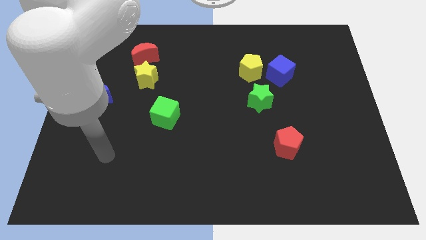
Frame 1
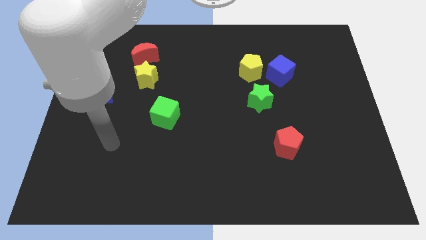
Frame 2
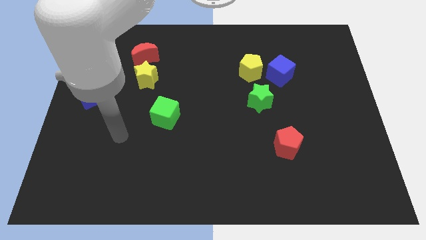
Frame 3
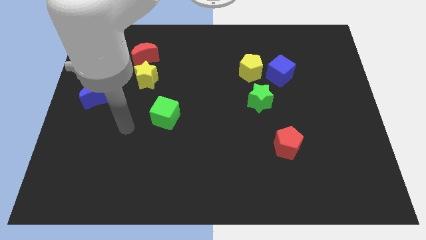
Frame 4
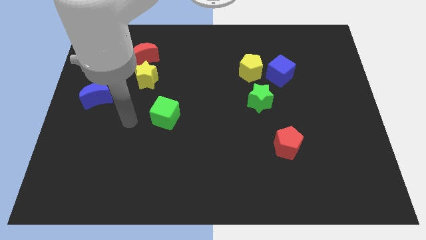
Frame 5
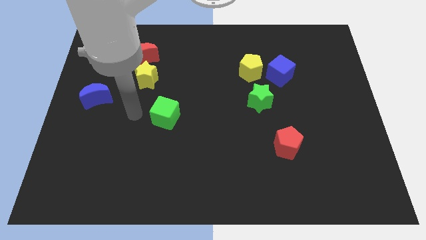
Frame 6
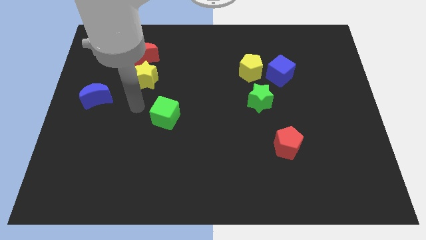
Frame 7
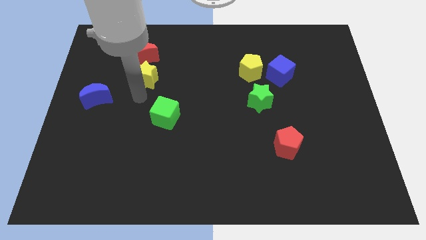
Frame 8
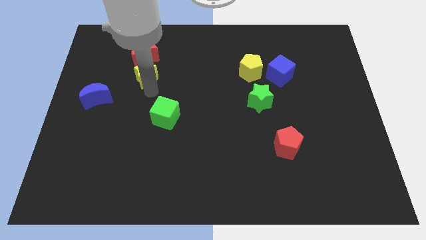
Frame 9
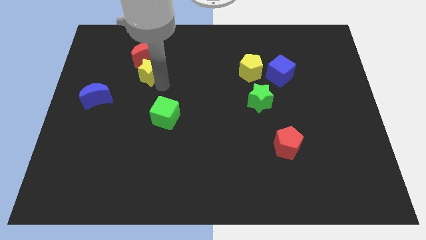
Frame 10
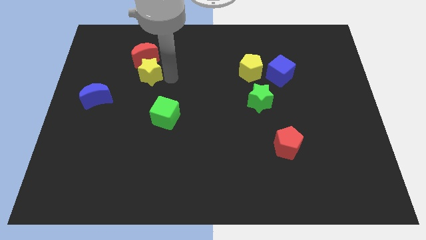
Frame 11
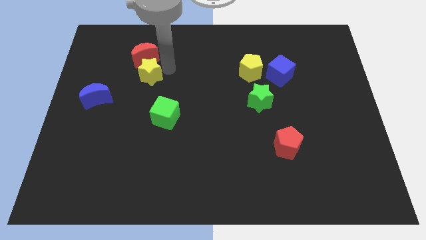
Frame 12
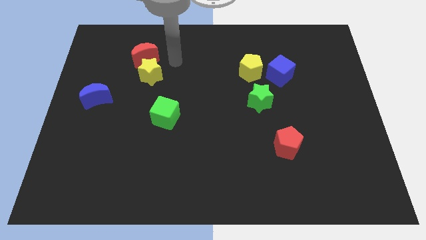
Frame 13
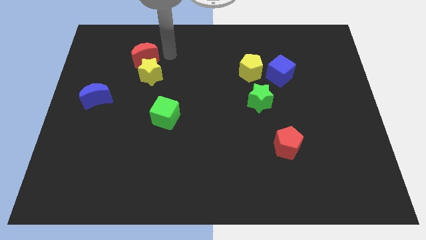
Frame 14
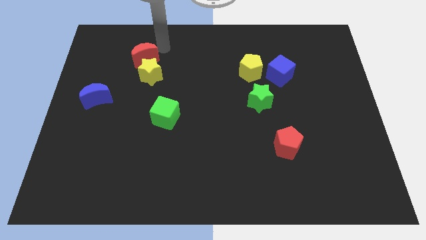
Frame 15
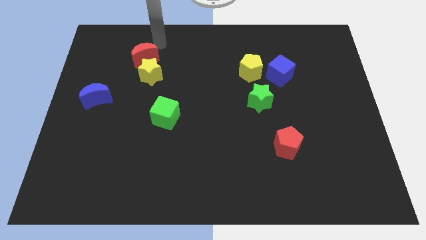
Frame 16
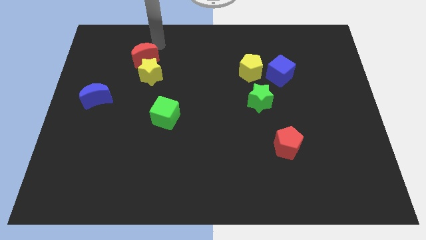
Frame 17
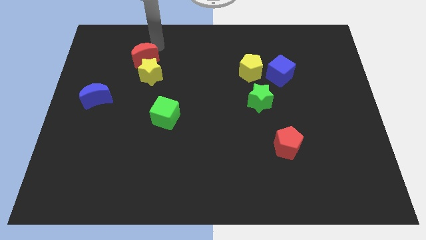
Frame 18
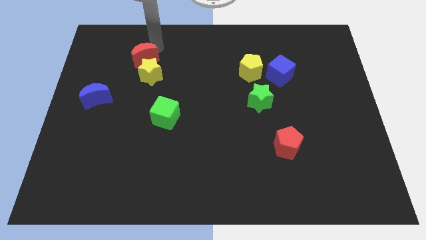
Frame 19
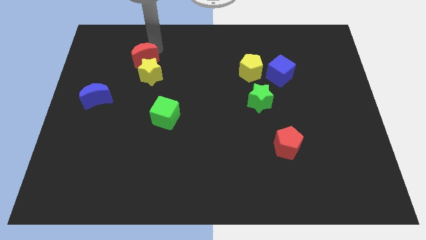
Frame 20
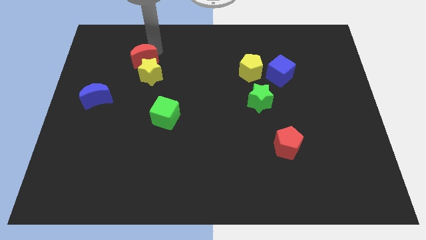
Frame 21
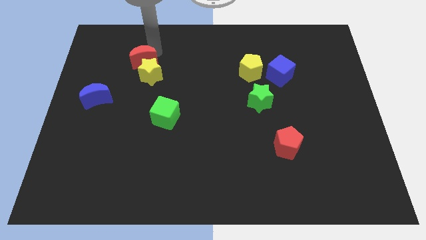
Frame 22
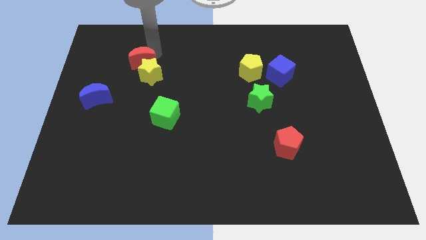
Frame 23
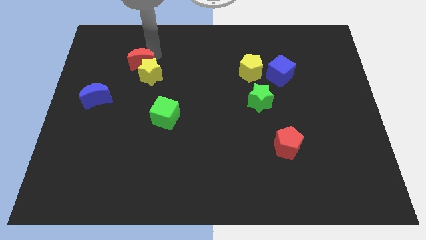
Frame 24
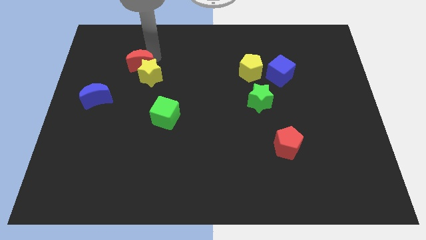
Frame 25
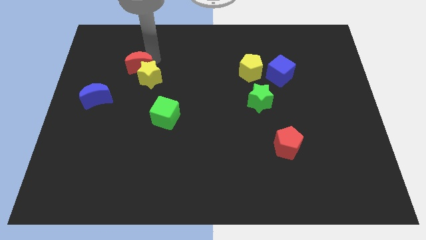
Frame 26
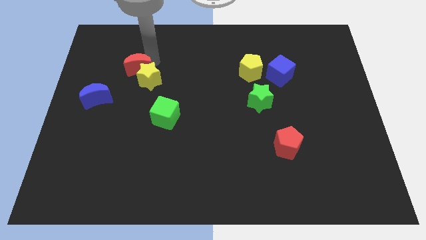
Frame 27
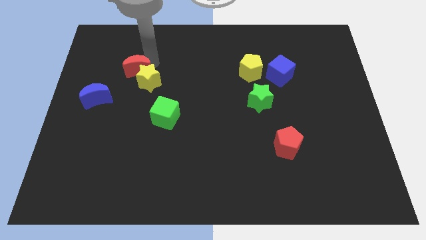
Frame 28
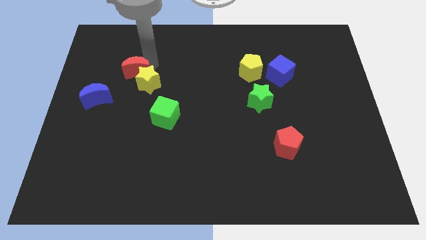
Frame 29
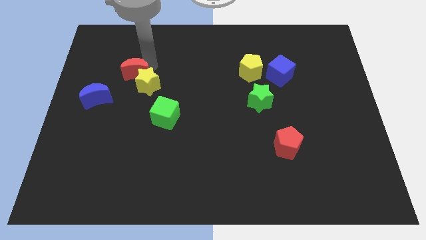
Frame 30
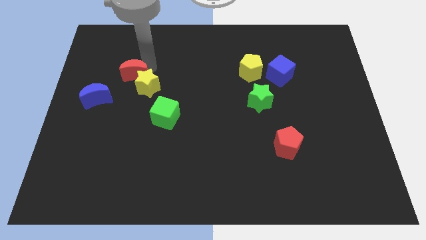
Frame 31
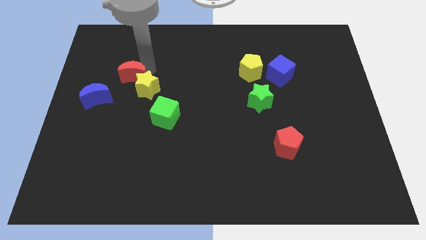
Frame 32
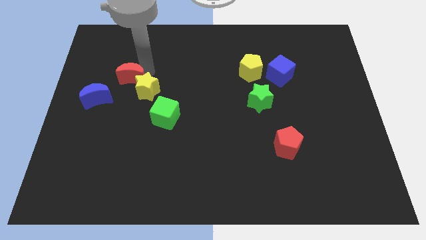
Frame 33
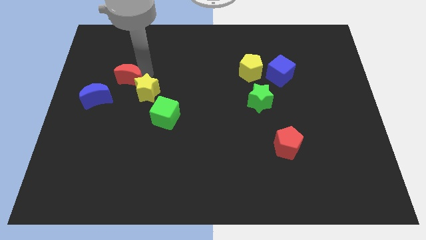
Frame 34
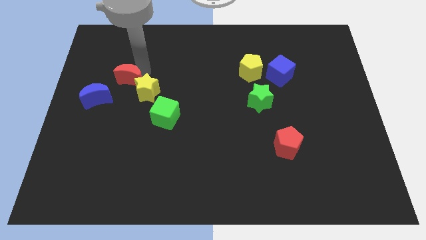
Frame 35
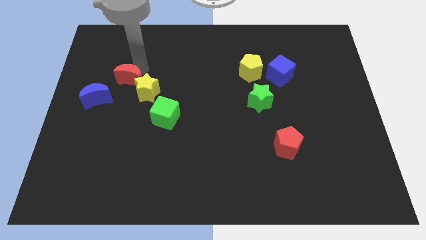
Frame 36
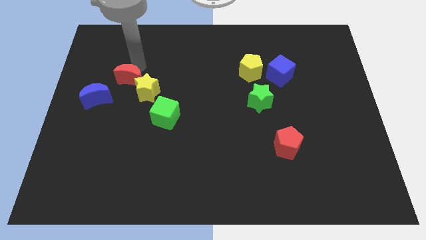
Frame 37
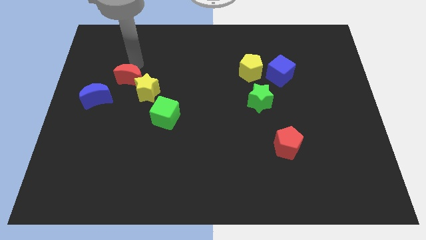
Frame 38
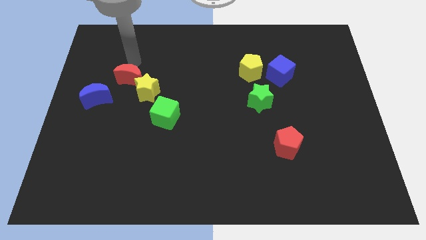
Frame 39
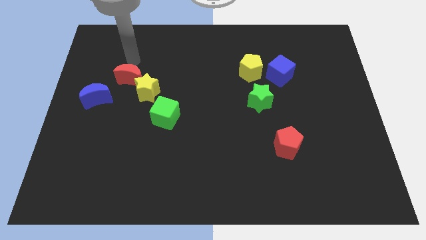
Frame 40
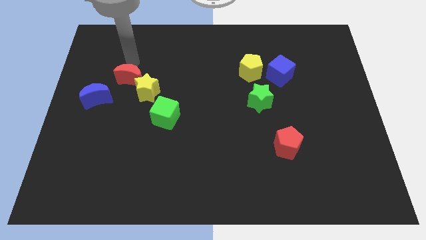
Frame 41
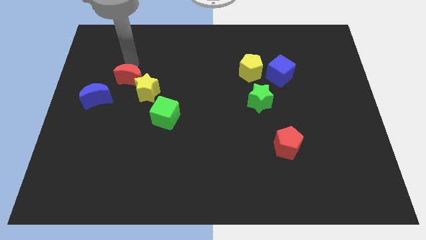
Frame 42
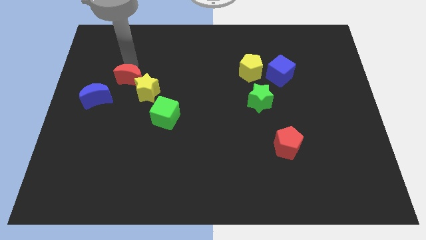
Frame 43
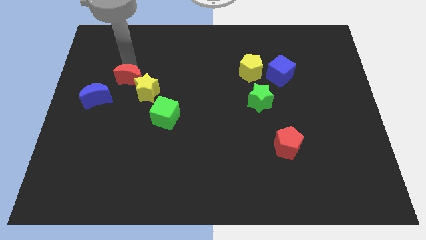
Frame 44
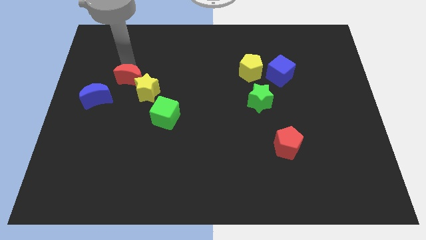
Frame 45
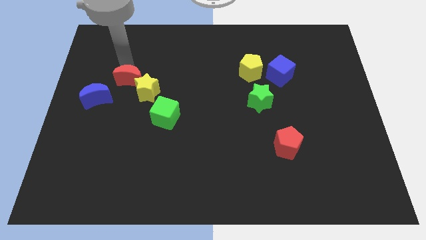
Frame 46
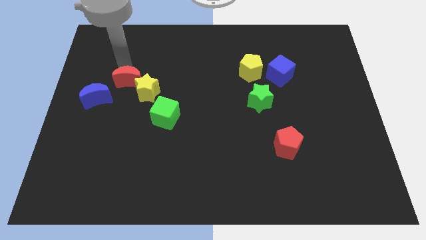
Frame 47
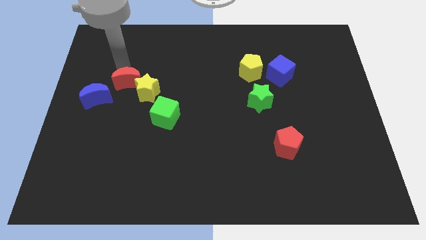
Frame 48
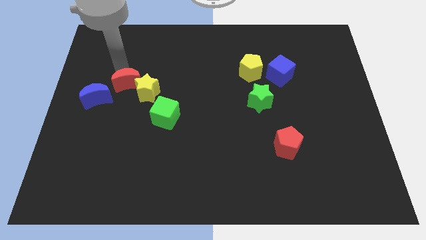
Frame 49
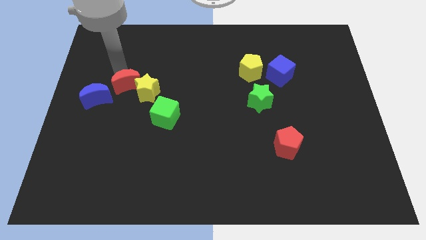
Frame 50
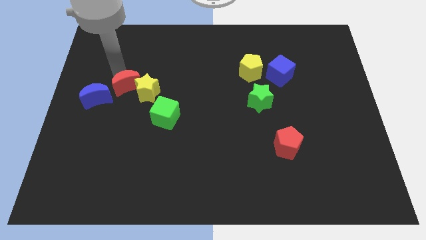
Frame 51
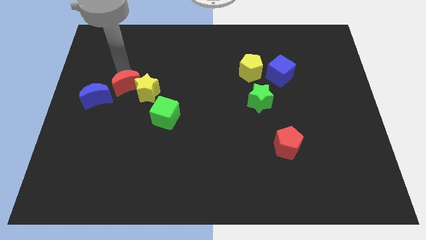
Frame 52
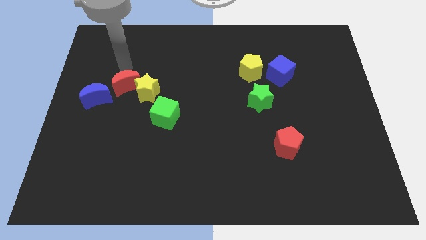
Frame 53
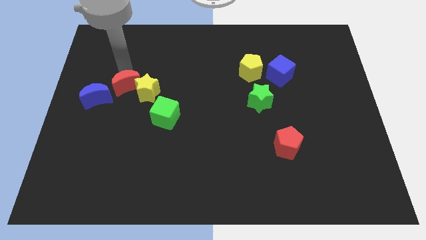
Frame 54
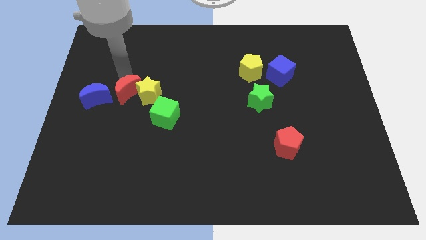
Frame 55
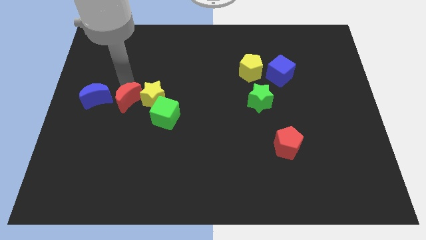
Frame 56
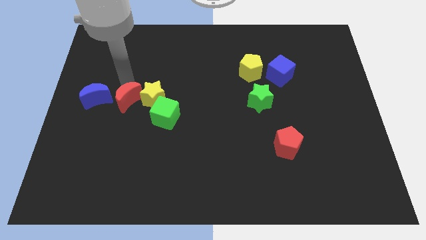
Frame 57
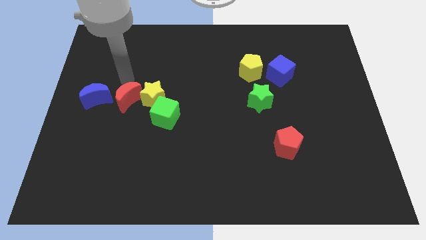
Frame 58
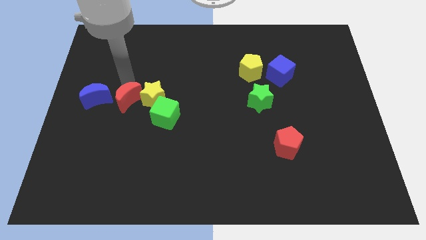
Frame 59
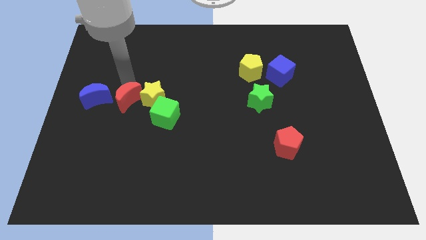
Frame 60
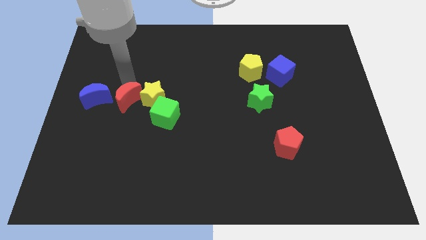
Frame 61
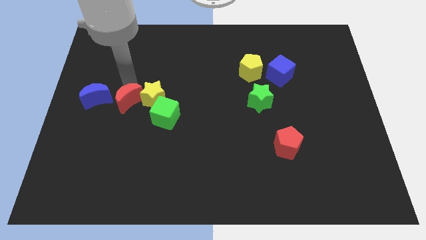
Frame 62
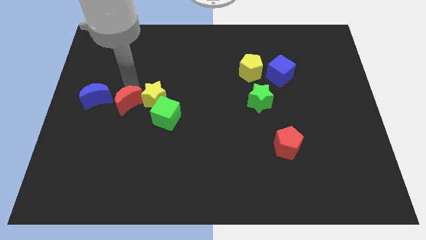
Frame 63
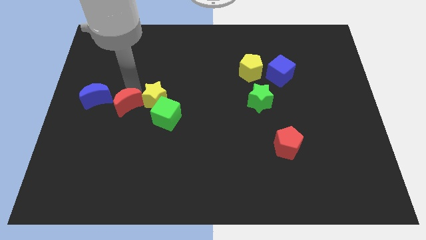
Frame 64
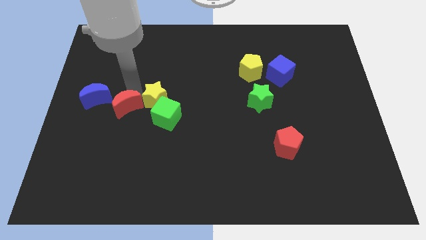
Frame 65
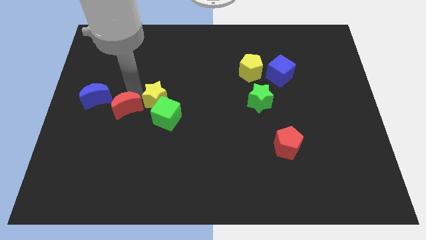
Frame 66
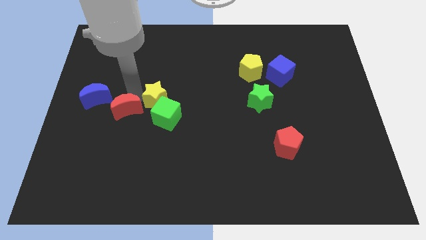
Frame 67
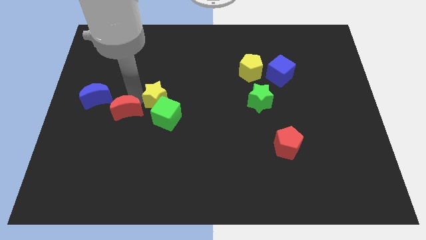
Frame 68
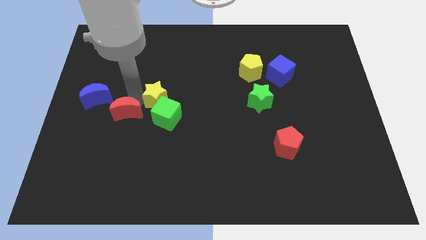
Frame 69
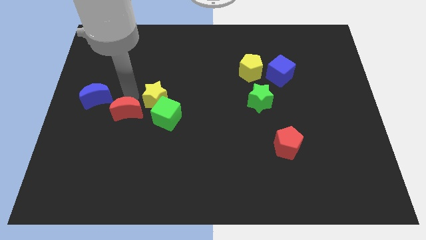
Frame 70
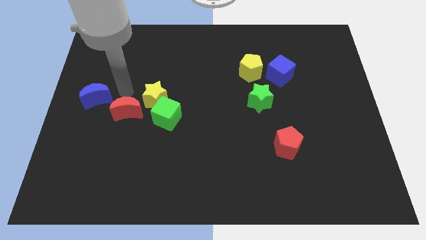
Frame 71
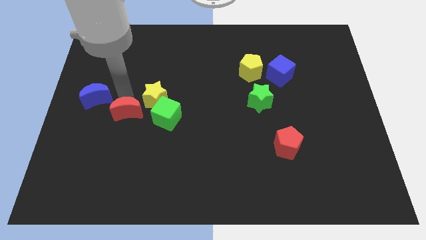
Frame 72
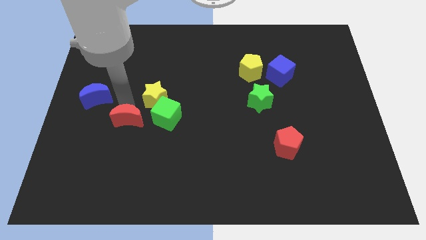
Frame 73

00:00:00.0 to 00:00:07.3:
slide the red moon down

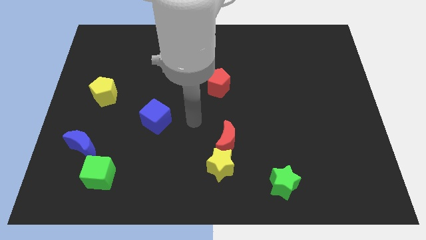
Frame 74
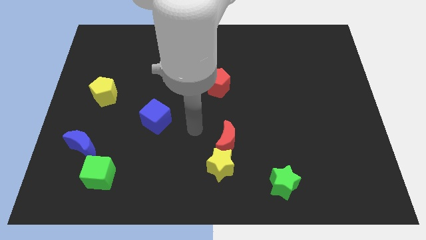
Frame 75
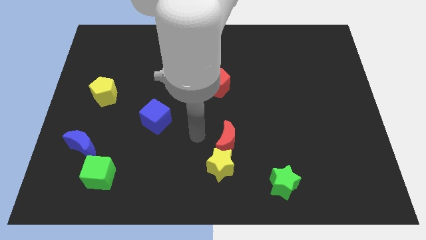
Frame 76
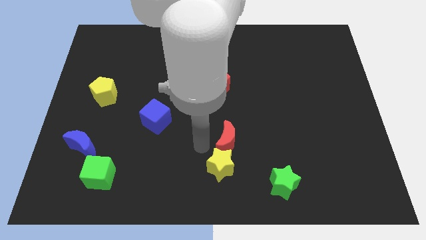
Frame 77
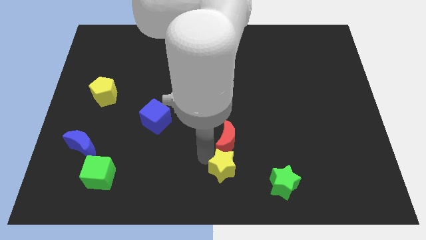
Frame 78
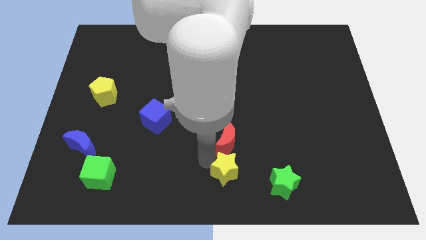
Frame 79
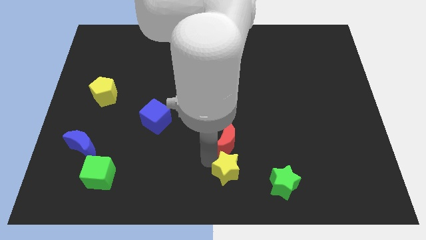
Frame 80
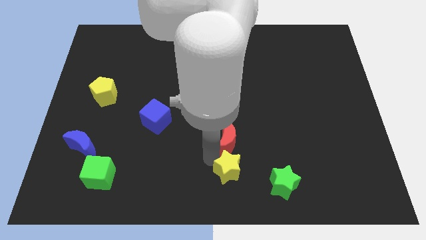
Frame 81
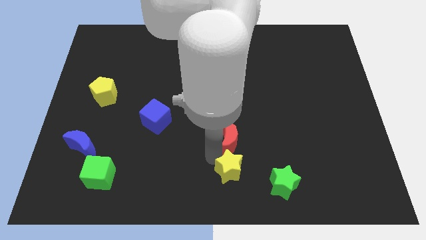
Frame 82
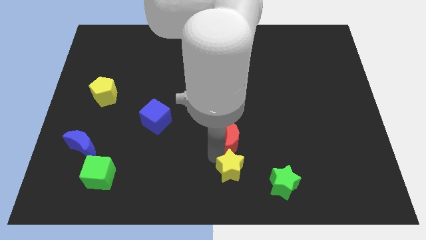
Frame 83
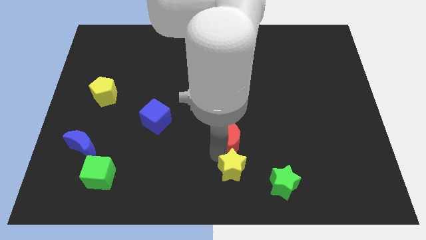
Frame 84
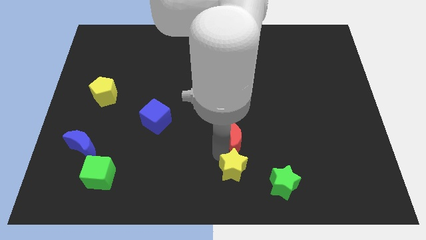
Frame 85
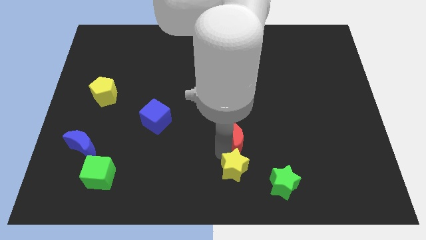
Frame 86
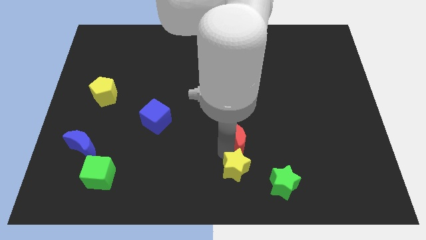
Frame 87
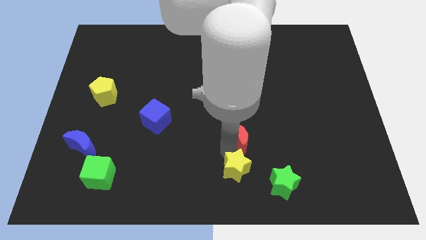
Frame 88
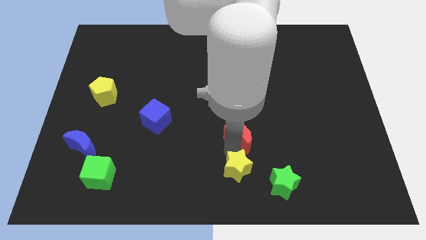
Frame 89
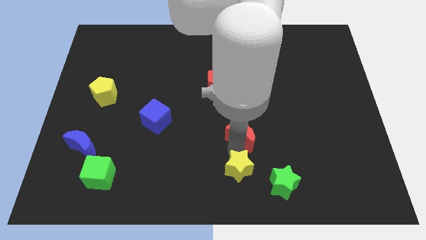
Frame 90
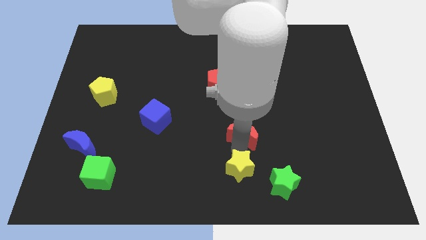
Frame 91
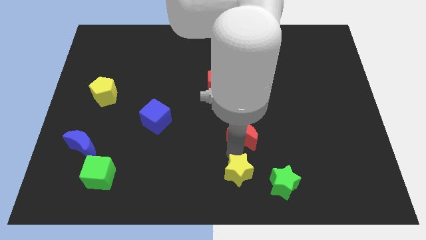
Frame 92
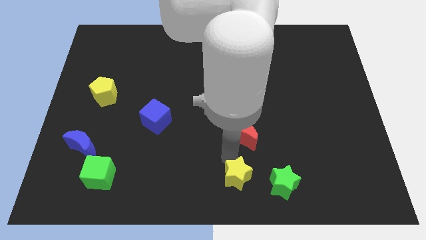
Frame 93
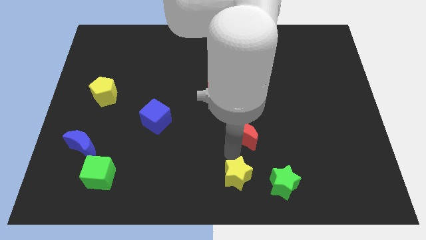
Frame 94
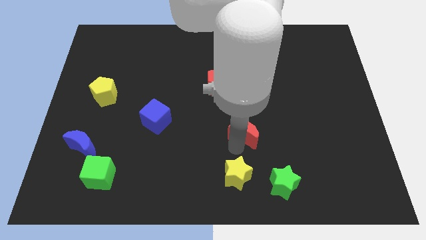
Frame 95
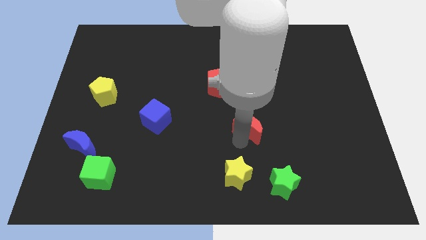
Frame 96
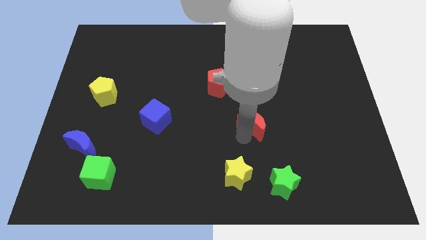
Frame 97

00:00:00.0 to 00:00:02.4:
push the red moon up and to the right somewhat
